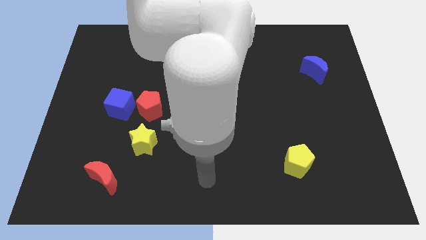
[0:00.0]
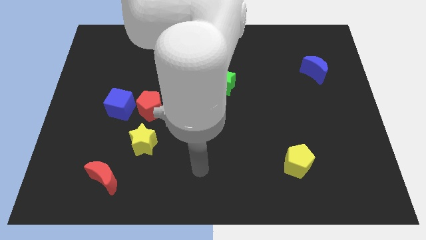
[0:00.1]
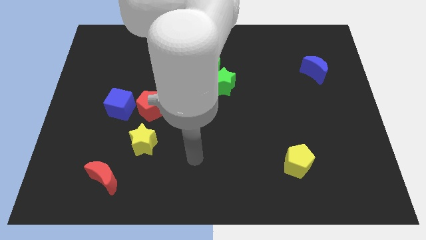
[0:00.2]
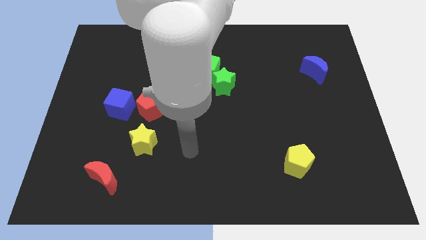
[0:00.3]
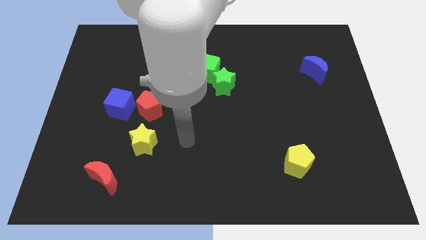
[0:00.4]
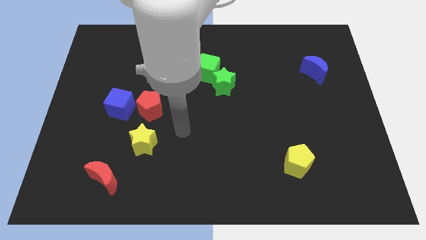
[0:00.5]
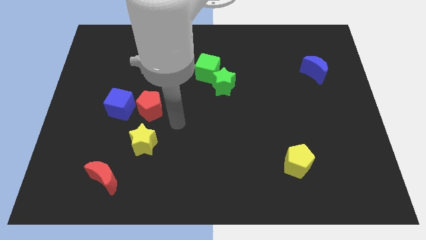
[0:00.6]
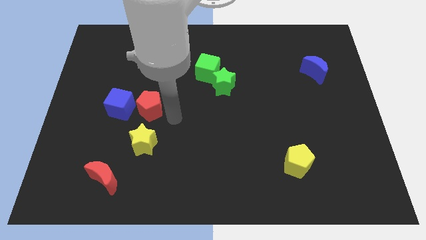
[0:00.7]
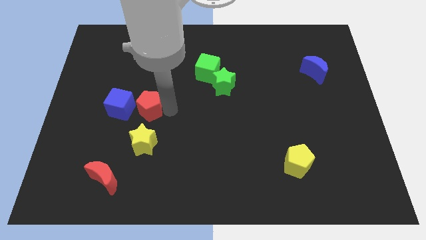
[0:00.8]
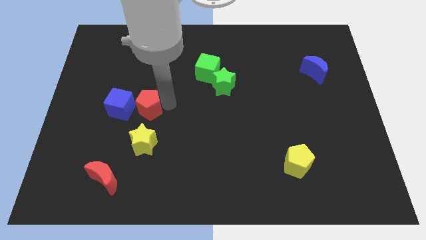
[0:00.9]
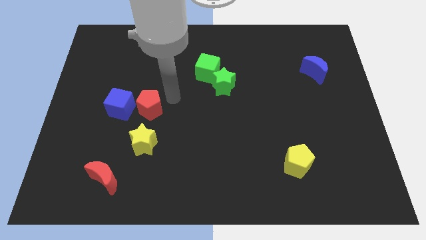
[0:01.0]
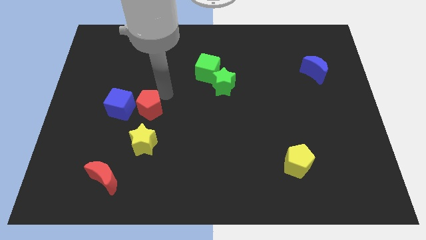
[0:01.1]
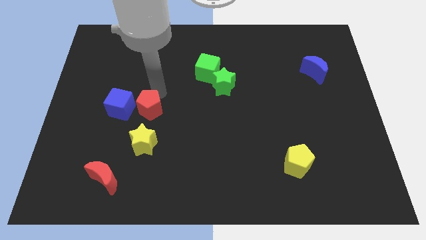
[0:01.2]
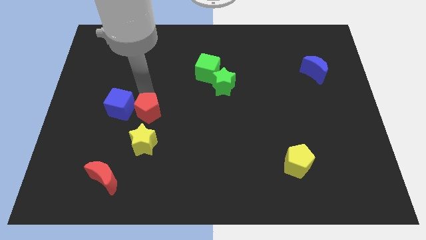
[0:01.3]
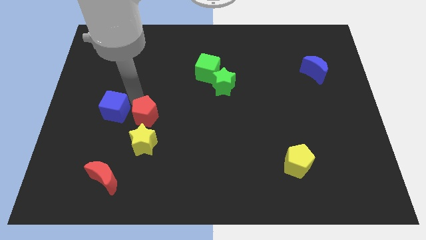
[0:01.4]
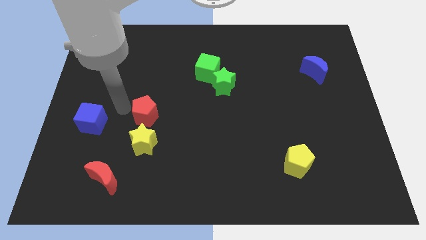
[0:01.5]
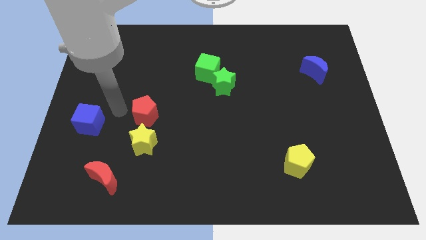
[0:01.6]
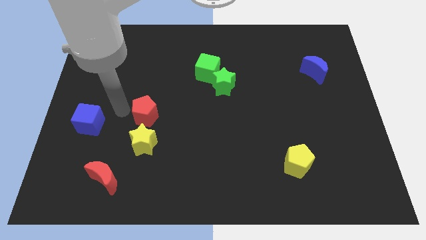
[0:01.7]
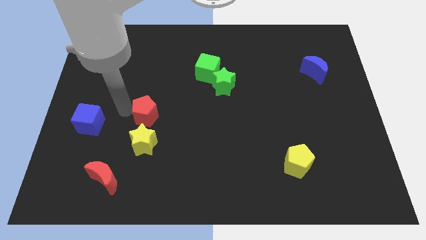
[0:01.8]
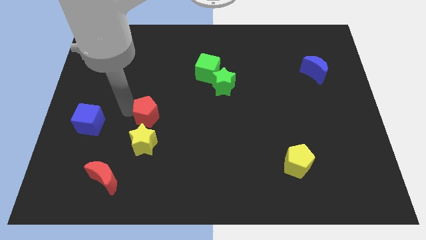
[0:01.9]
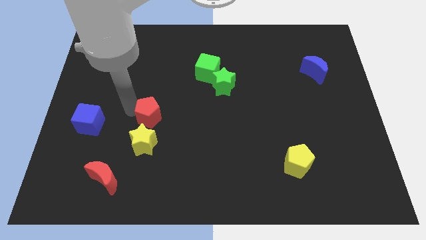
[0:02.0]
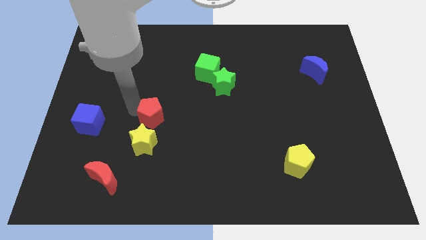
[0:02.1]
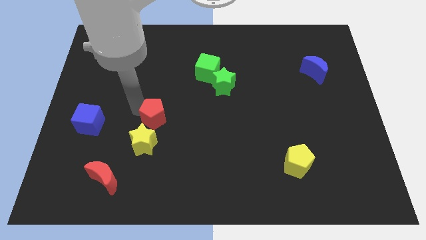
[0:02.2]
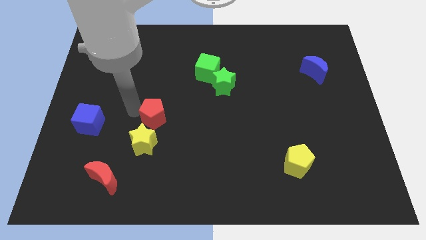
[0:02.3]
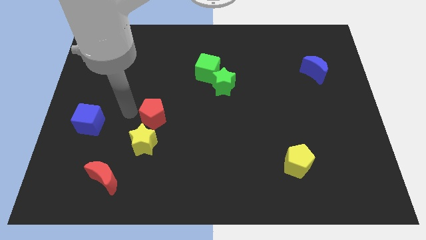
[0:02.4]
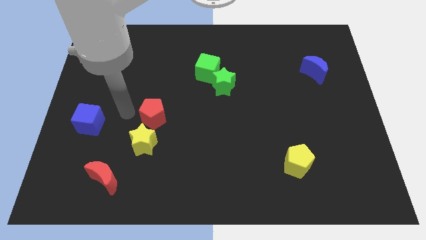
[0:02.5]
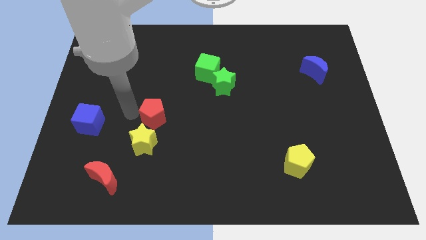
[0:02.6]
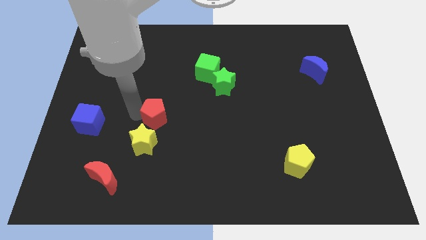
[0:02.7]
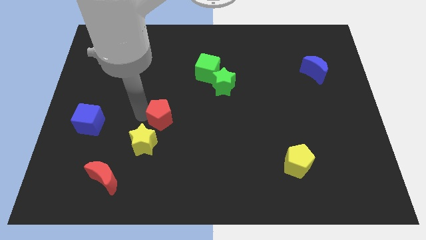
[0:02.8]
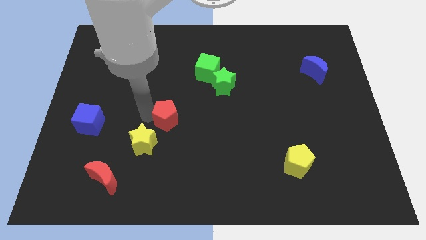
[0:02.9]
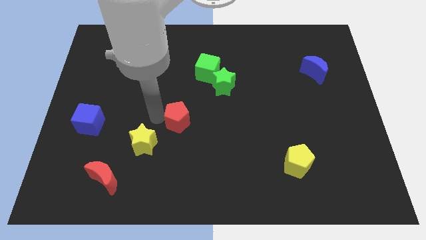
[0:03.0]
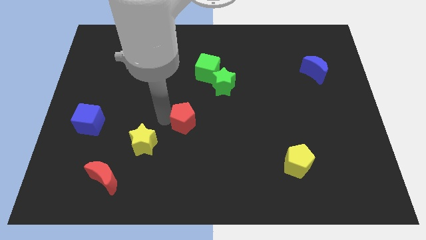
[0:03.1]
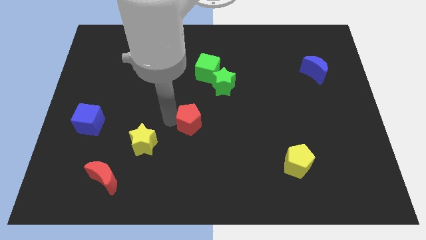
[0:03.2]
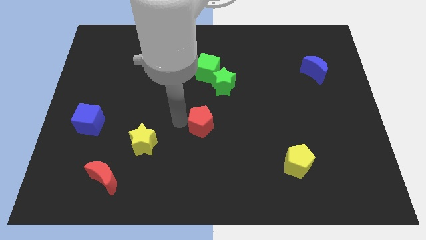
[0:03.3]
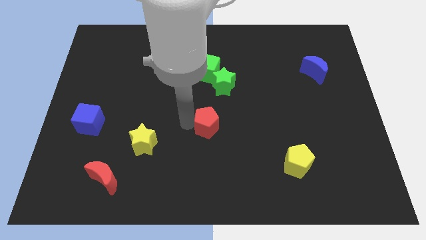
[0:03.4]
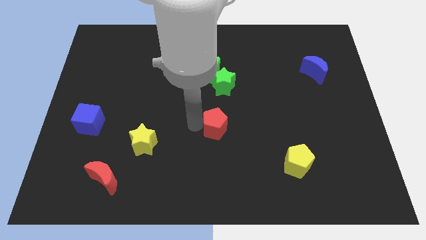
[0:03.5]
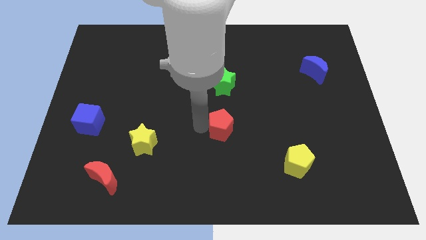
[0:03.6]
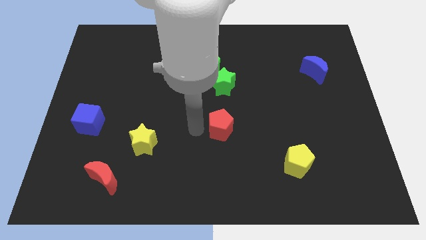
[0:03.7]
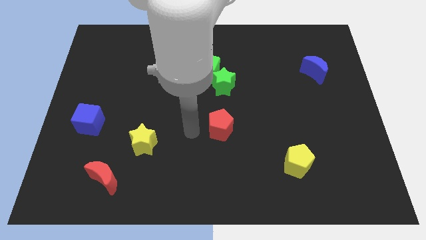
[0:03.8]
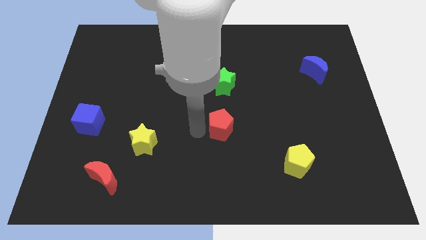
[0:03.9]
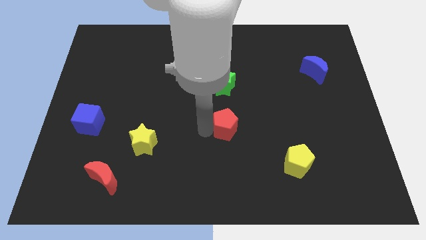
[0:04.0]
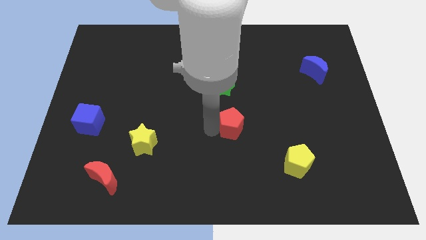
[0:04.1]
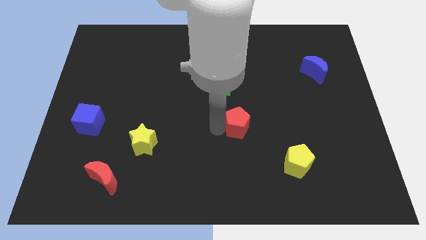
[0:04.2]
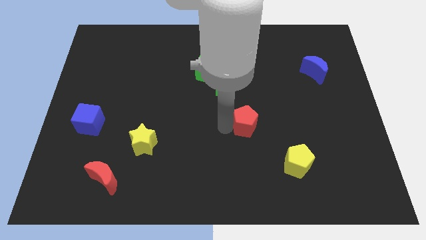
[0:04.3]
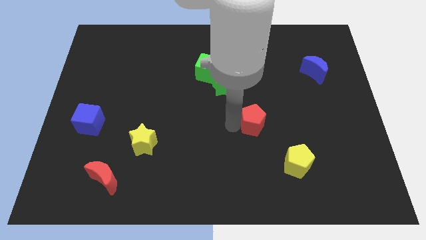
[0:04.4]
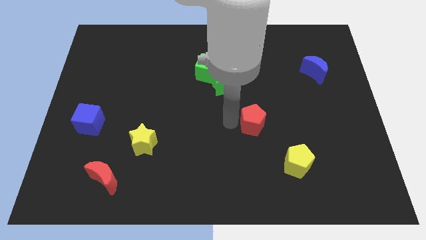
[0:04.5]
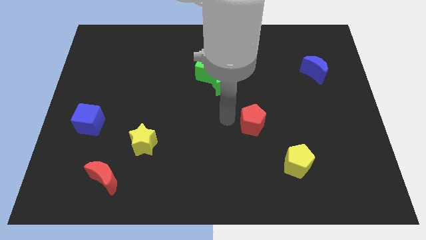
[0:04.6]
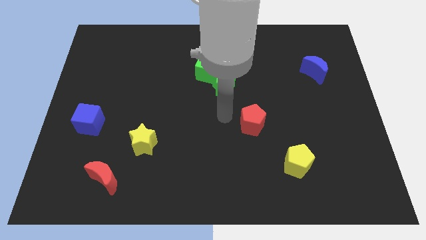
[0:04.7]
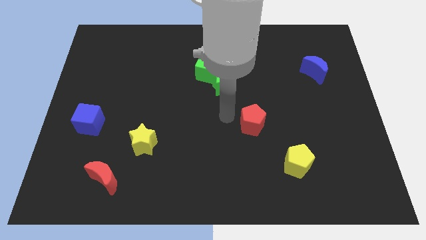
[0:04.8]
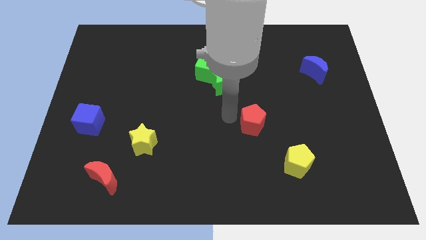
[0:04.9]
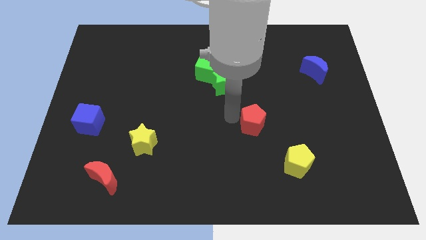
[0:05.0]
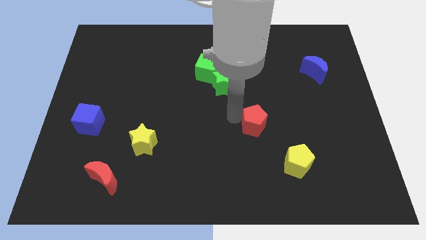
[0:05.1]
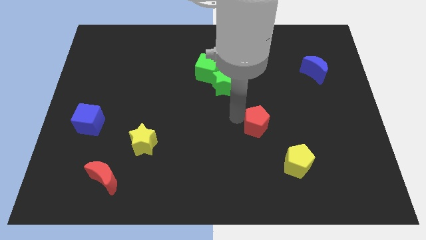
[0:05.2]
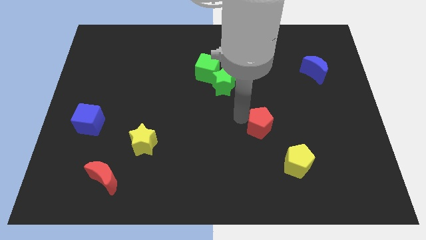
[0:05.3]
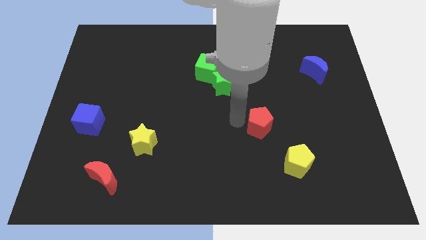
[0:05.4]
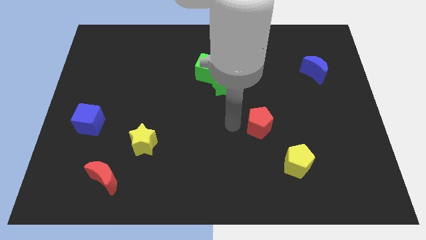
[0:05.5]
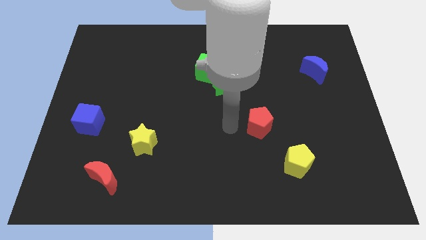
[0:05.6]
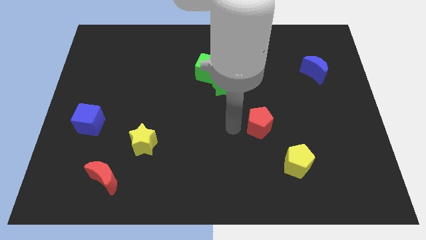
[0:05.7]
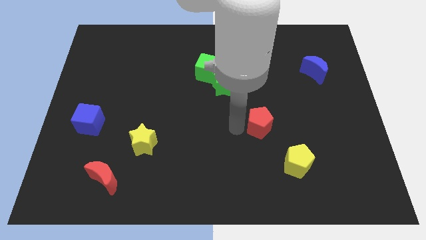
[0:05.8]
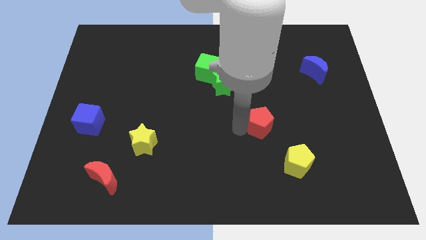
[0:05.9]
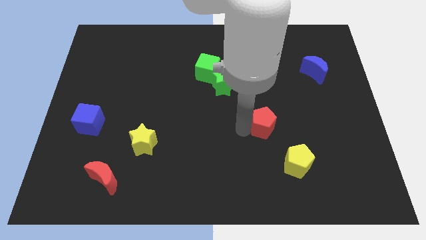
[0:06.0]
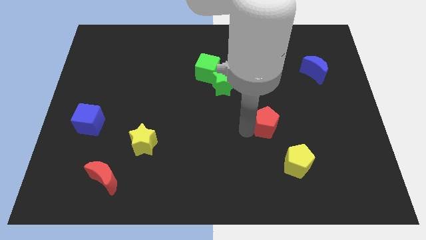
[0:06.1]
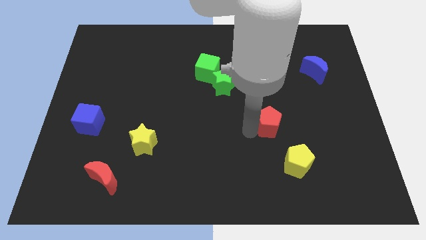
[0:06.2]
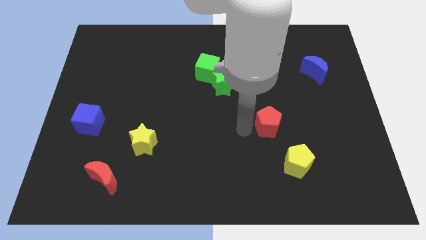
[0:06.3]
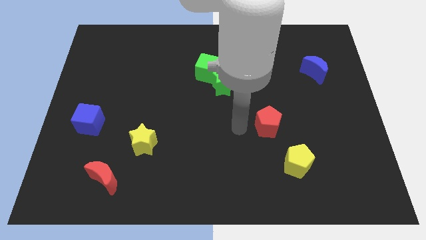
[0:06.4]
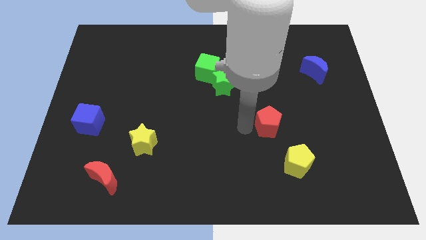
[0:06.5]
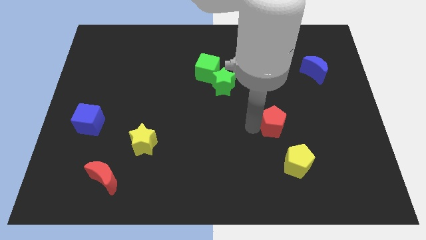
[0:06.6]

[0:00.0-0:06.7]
put the red pentagon to the top of the yellow pentagon
